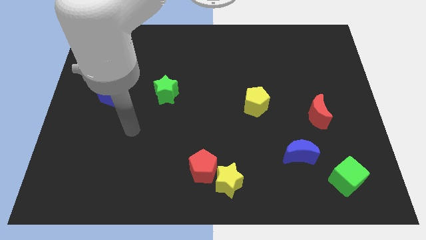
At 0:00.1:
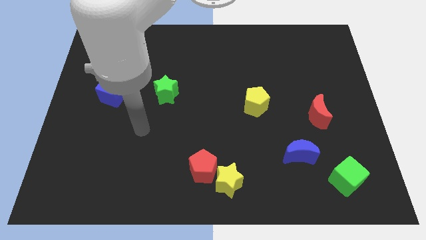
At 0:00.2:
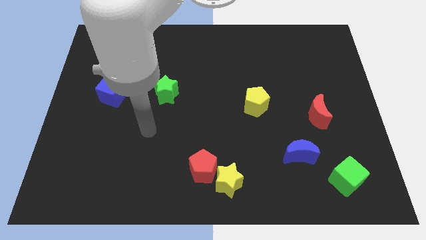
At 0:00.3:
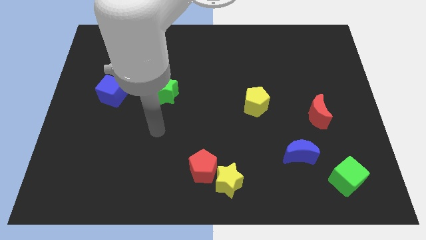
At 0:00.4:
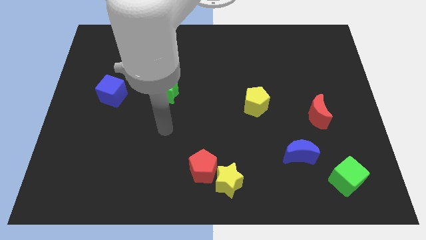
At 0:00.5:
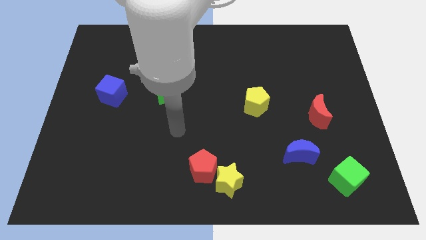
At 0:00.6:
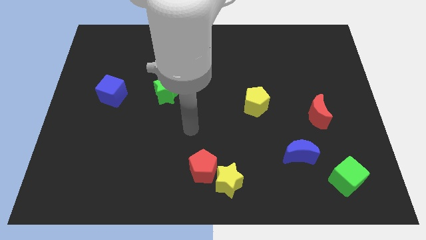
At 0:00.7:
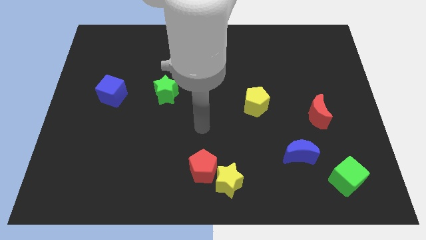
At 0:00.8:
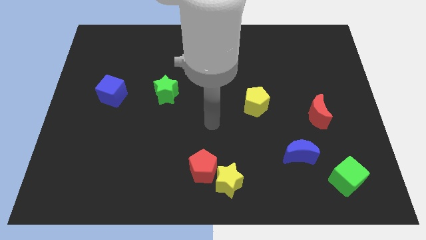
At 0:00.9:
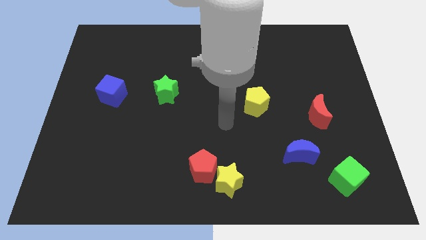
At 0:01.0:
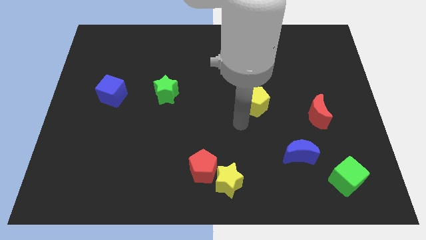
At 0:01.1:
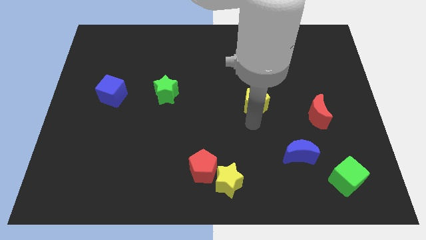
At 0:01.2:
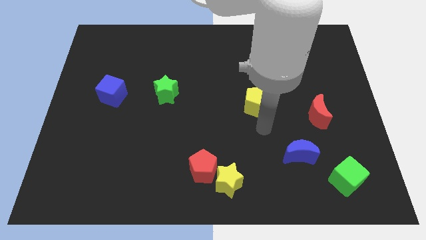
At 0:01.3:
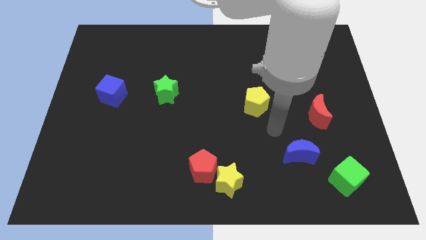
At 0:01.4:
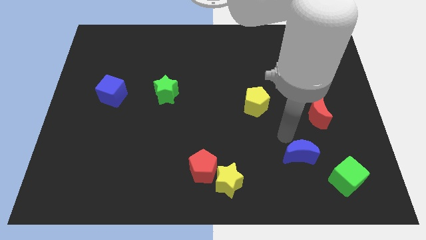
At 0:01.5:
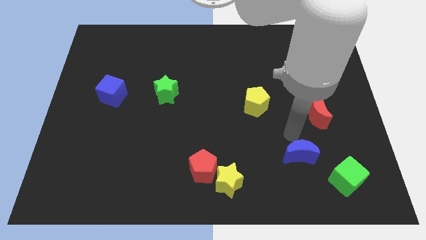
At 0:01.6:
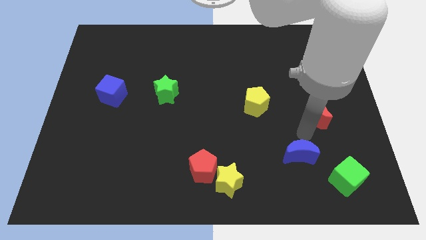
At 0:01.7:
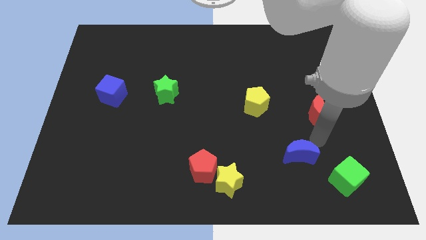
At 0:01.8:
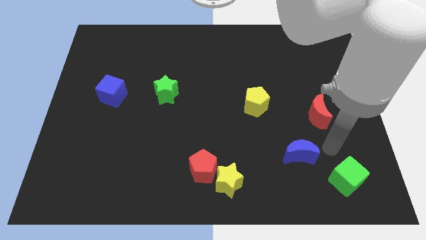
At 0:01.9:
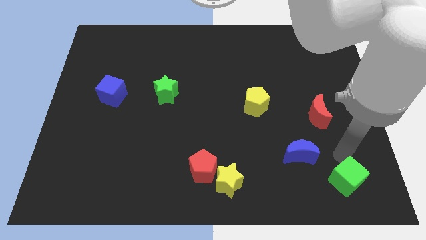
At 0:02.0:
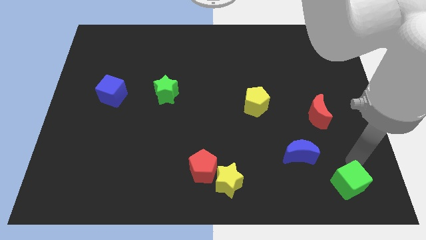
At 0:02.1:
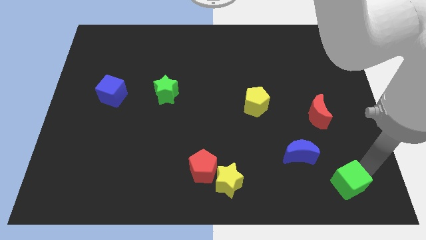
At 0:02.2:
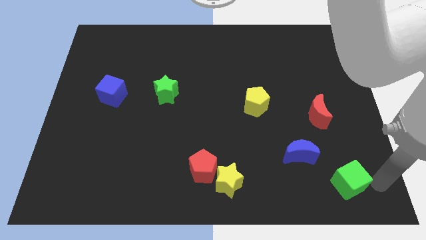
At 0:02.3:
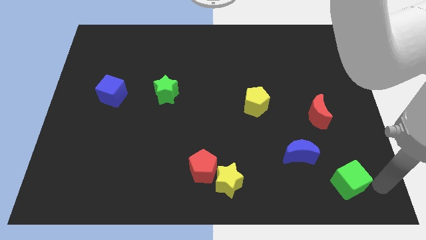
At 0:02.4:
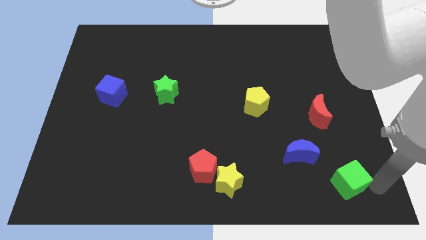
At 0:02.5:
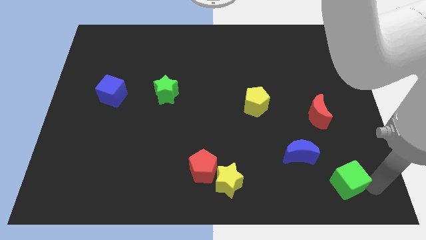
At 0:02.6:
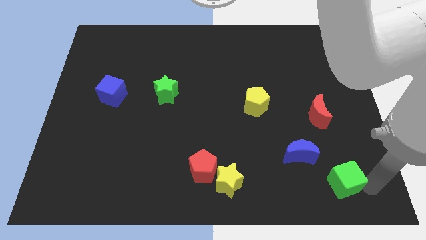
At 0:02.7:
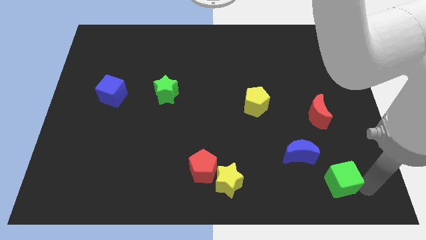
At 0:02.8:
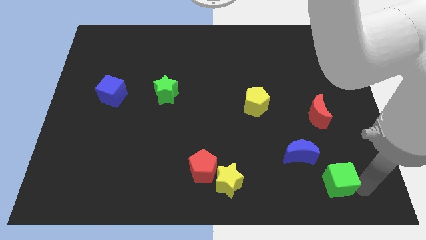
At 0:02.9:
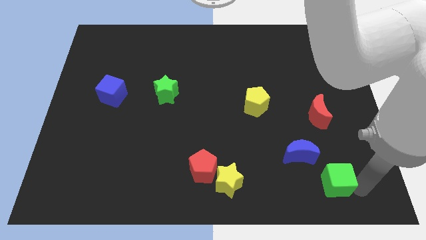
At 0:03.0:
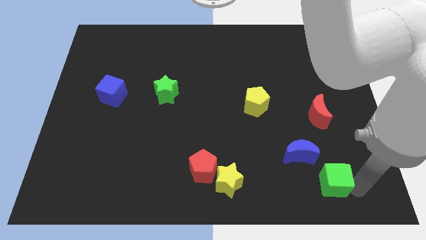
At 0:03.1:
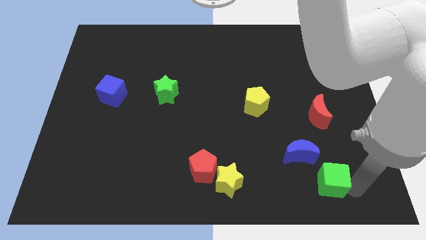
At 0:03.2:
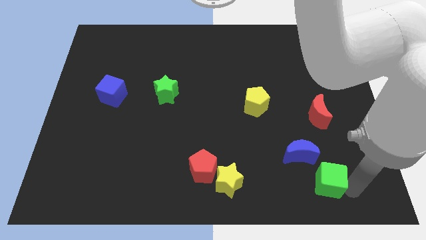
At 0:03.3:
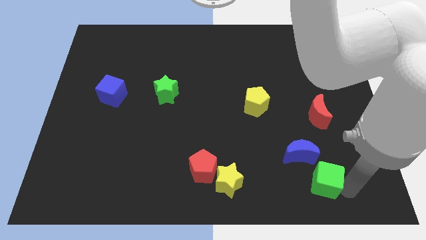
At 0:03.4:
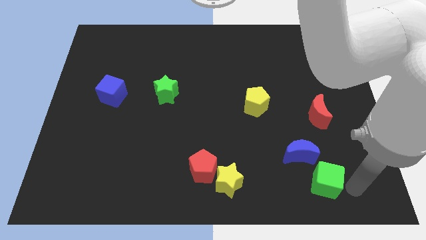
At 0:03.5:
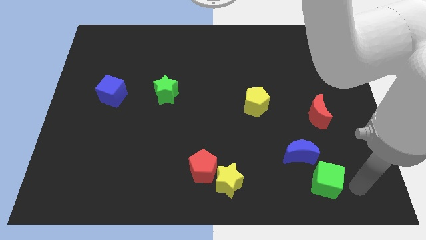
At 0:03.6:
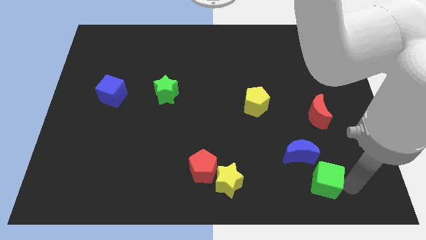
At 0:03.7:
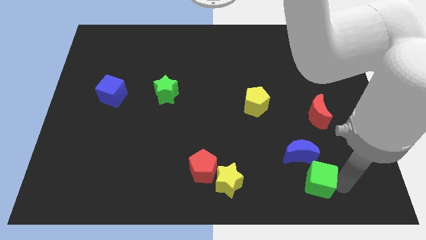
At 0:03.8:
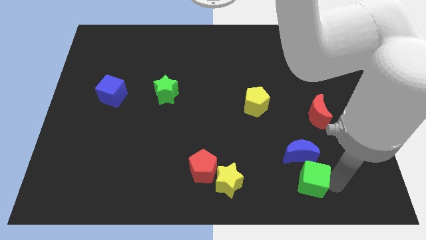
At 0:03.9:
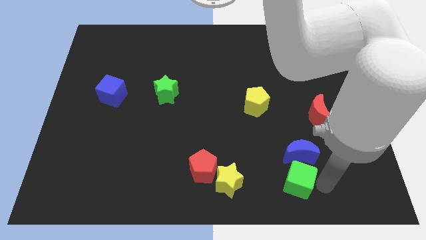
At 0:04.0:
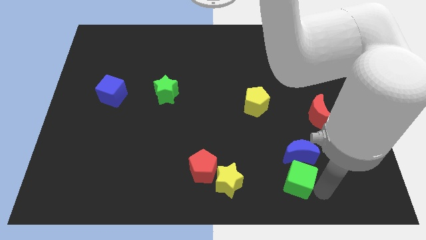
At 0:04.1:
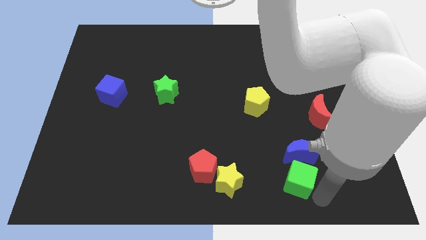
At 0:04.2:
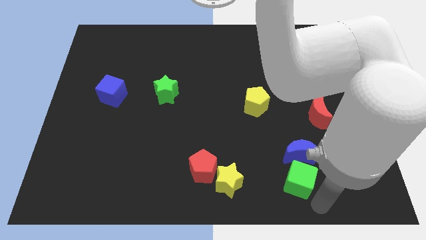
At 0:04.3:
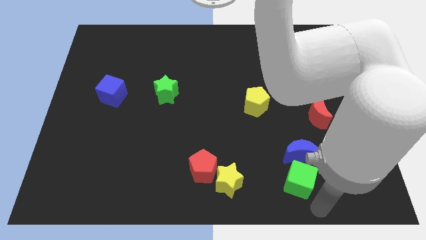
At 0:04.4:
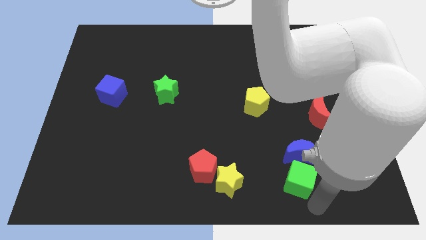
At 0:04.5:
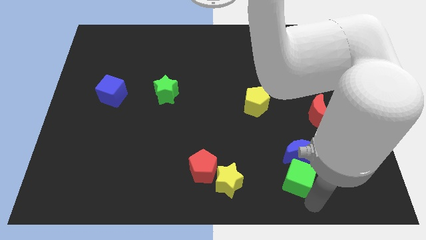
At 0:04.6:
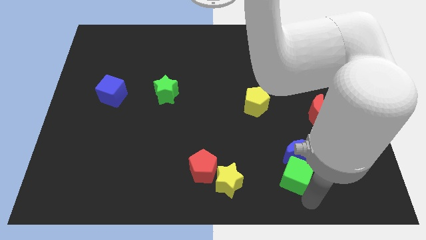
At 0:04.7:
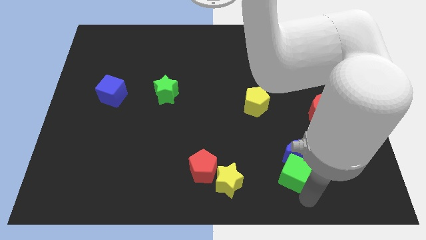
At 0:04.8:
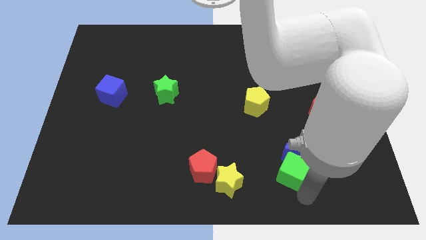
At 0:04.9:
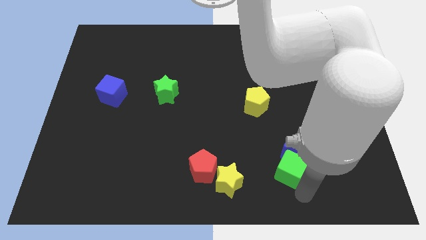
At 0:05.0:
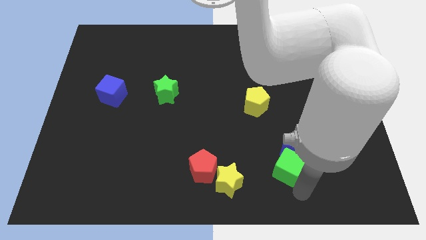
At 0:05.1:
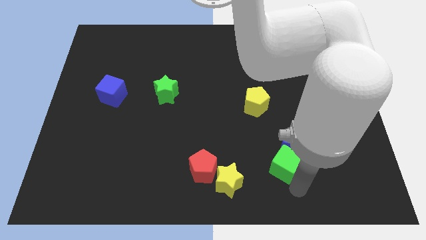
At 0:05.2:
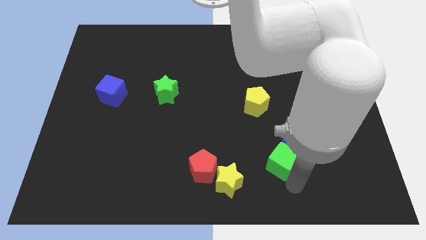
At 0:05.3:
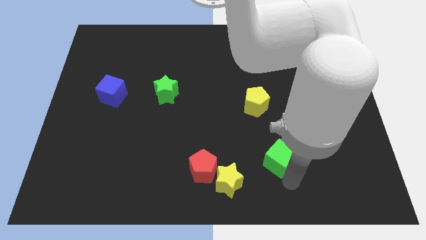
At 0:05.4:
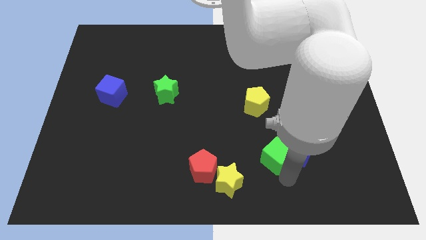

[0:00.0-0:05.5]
put the green cube diagonally up and to the left of the blue moon

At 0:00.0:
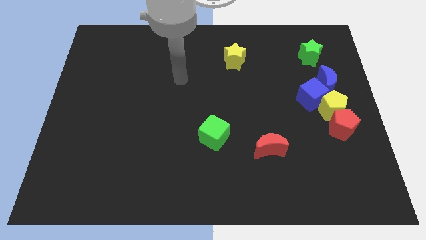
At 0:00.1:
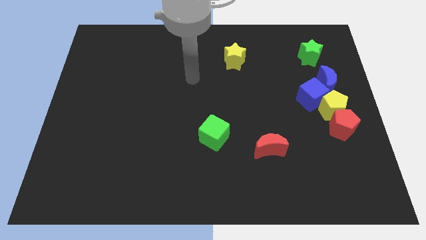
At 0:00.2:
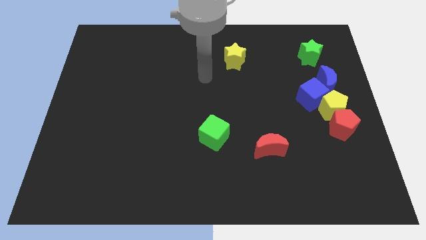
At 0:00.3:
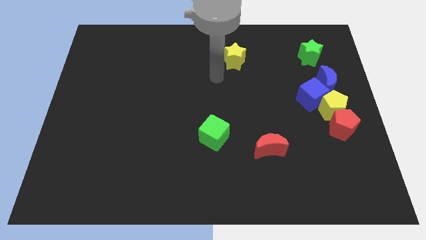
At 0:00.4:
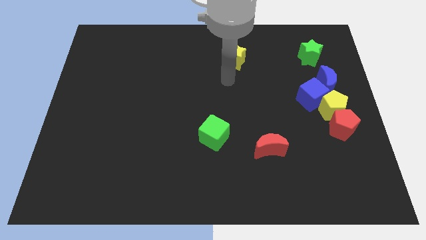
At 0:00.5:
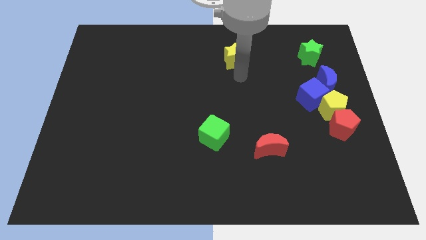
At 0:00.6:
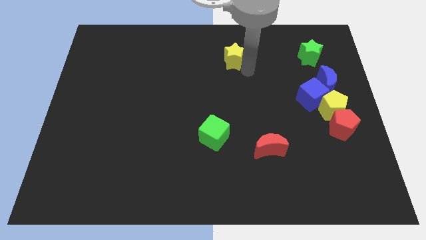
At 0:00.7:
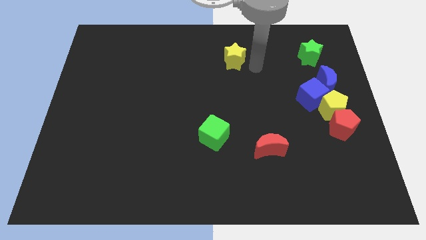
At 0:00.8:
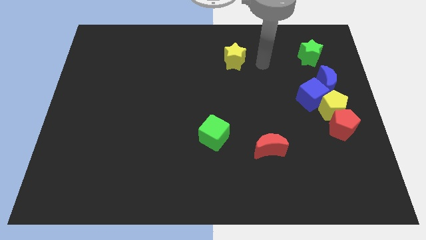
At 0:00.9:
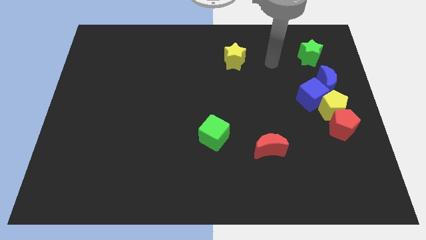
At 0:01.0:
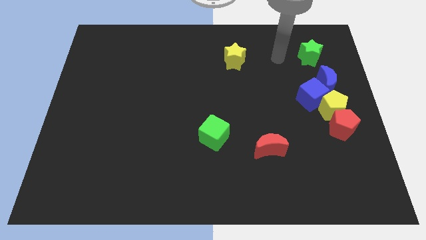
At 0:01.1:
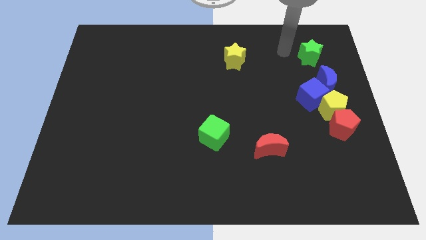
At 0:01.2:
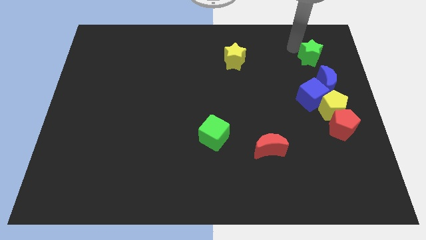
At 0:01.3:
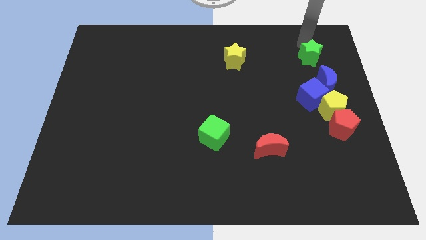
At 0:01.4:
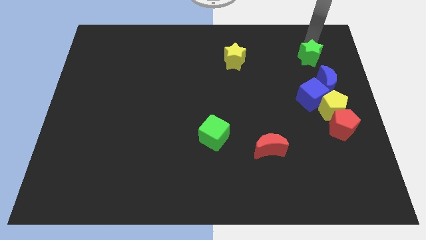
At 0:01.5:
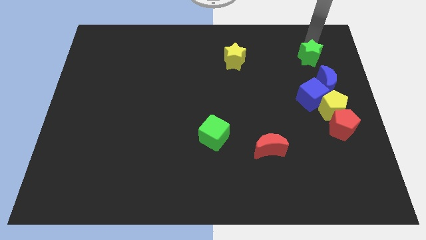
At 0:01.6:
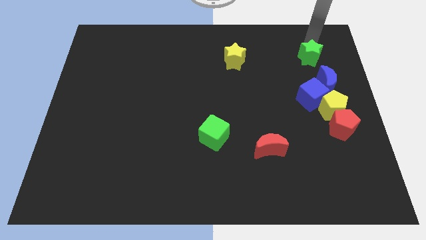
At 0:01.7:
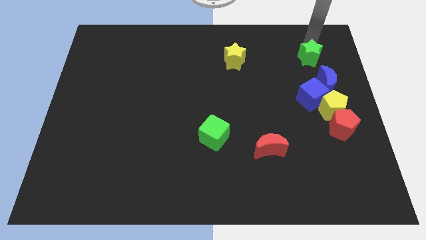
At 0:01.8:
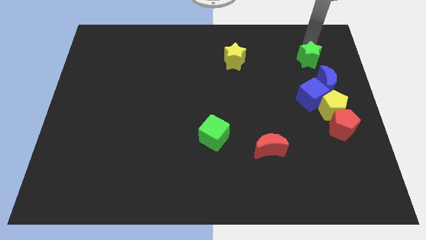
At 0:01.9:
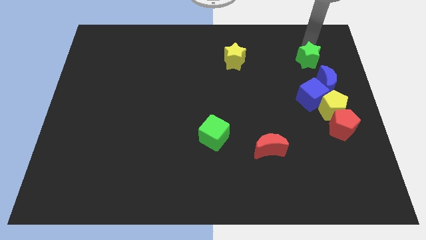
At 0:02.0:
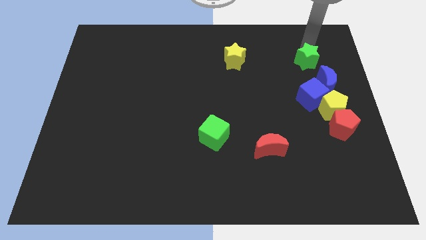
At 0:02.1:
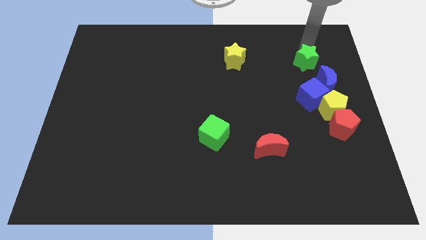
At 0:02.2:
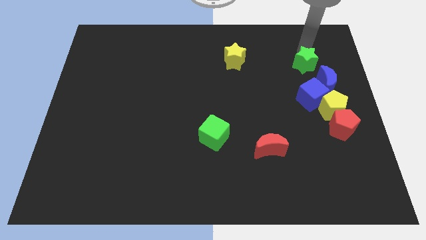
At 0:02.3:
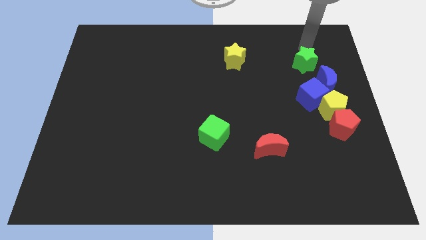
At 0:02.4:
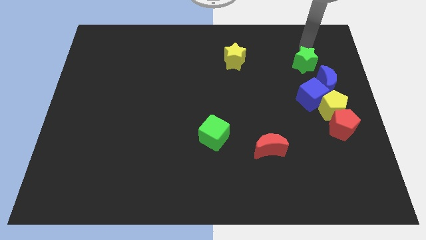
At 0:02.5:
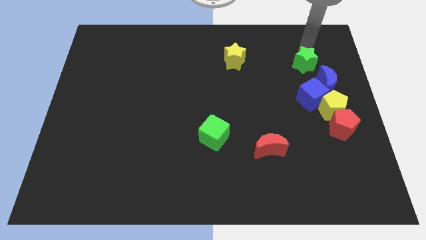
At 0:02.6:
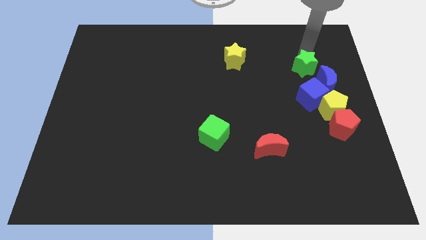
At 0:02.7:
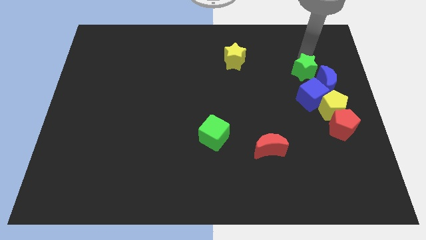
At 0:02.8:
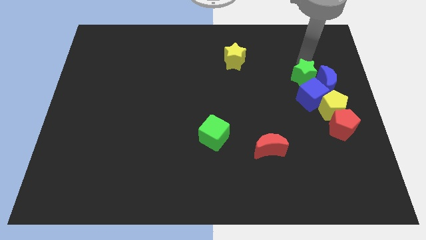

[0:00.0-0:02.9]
put the green star to the top left side of the yellow pentagon
